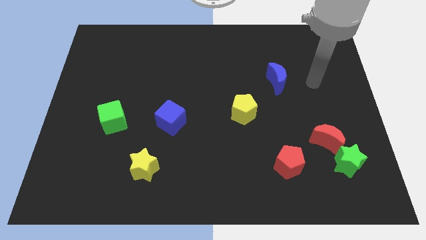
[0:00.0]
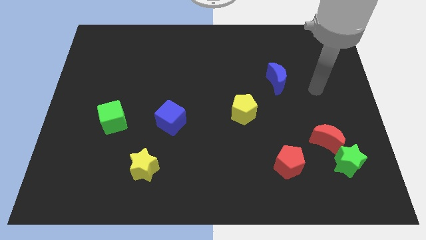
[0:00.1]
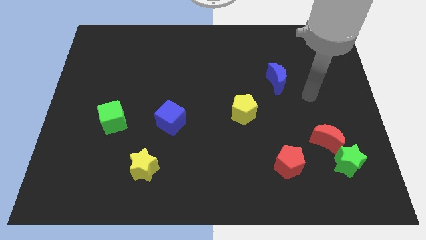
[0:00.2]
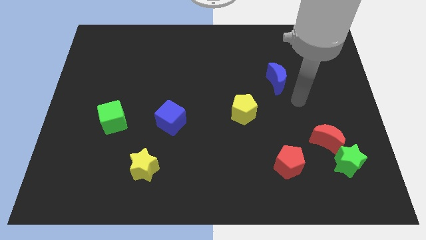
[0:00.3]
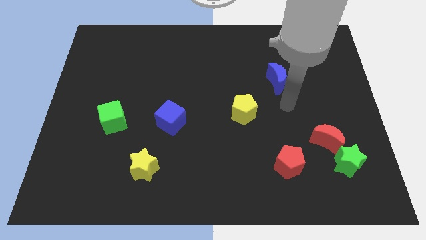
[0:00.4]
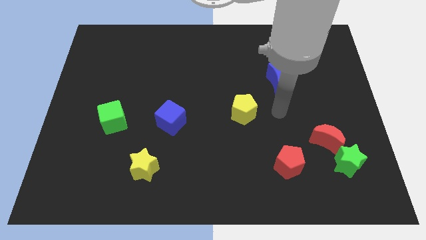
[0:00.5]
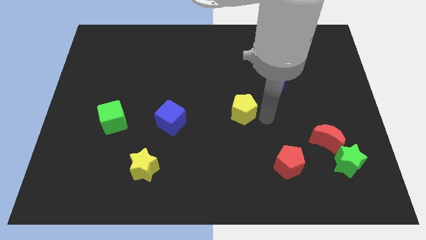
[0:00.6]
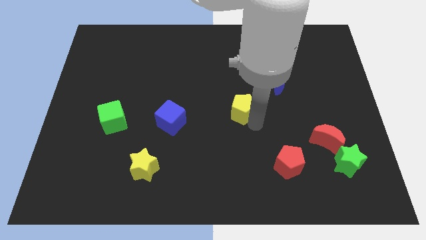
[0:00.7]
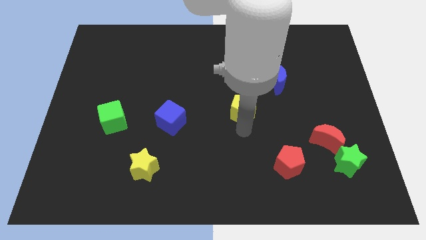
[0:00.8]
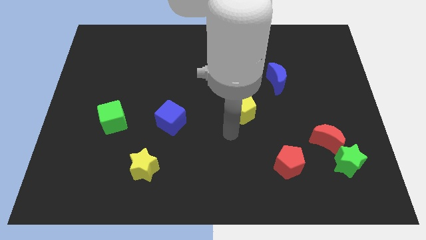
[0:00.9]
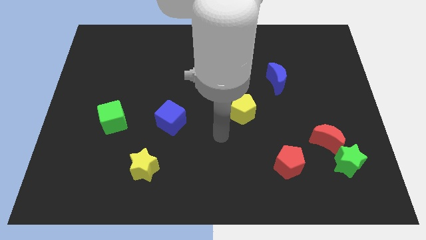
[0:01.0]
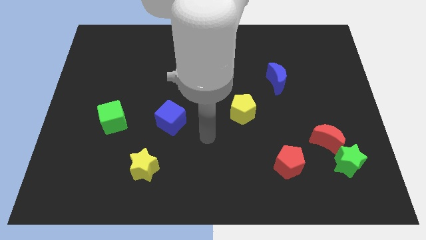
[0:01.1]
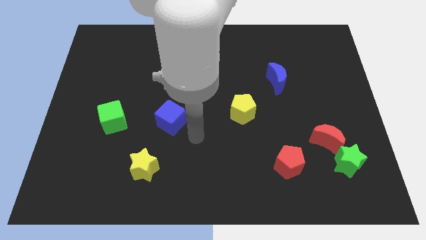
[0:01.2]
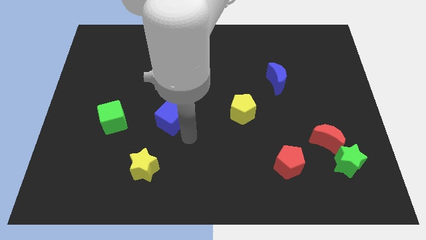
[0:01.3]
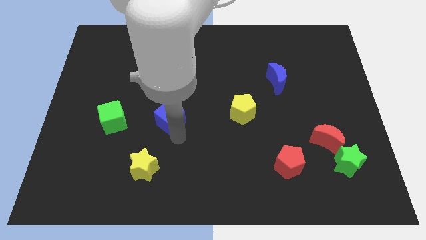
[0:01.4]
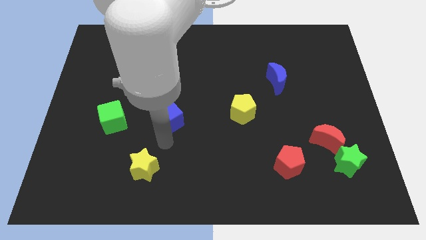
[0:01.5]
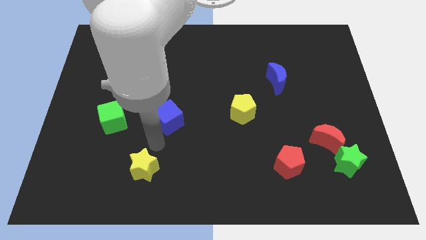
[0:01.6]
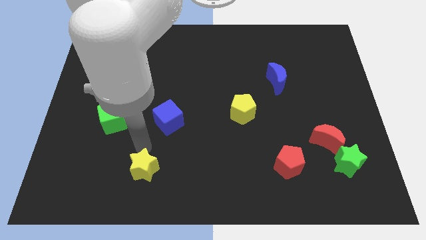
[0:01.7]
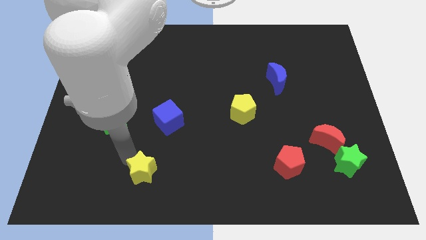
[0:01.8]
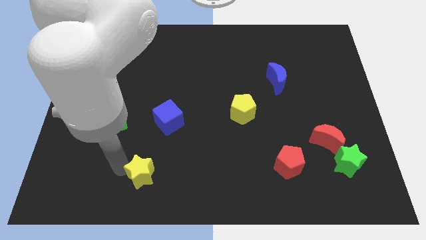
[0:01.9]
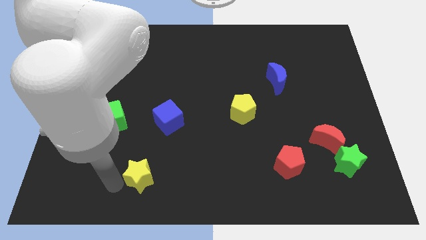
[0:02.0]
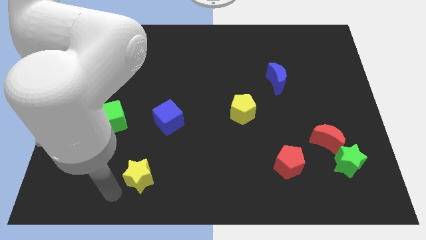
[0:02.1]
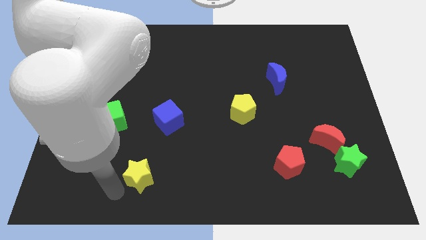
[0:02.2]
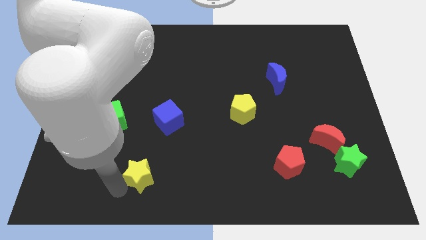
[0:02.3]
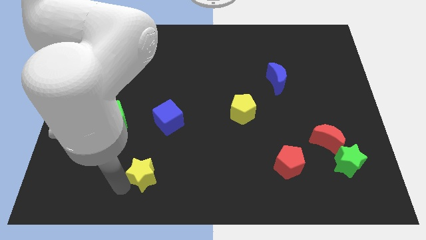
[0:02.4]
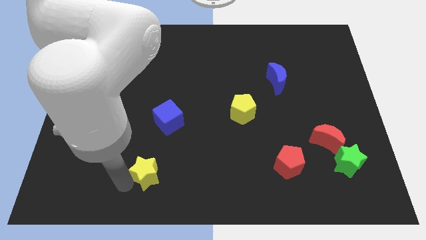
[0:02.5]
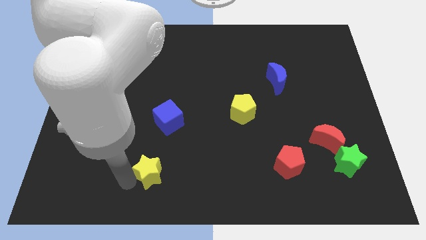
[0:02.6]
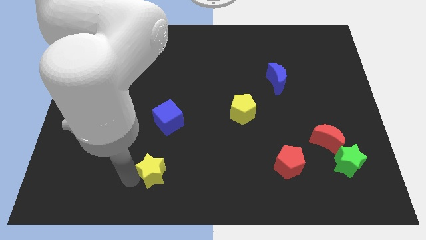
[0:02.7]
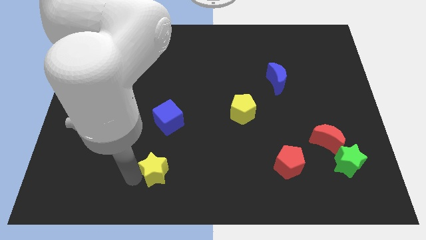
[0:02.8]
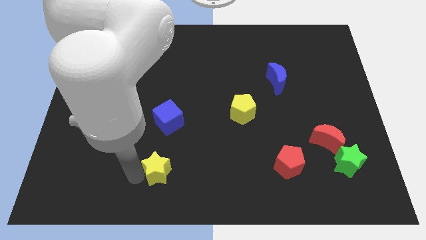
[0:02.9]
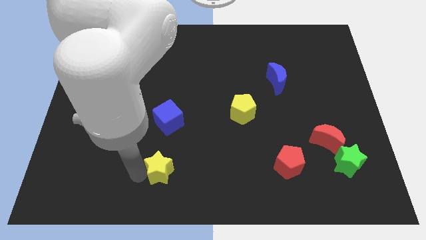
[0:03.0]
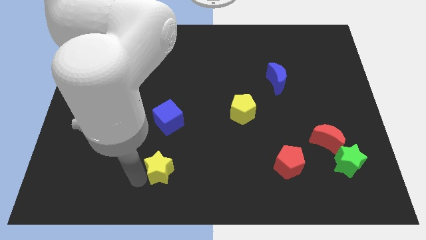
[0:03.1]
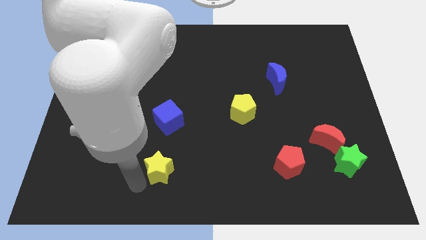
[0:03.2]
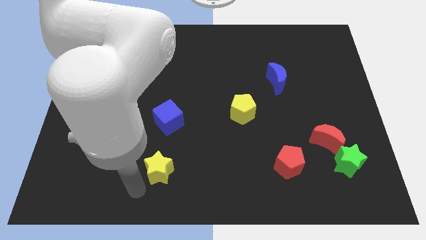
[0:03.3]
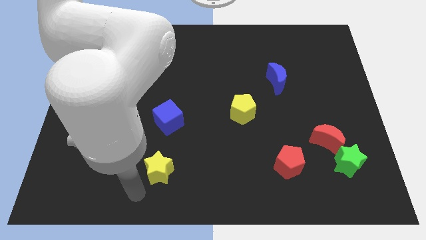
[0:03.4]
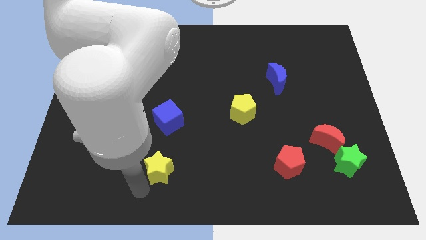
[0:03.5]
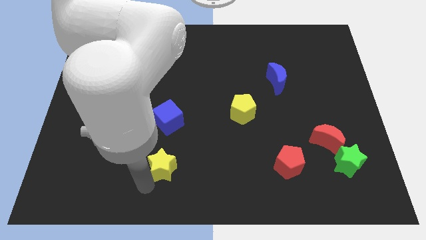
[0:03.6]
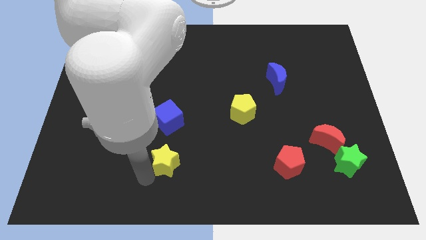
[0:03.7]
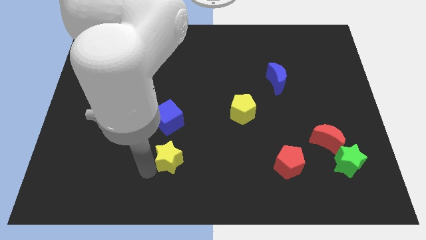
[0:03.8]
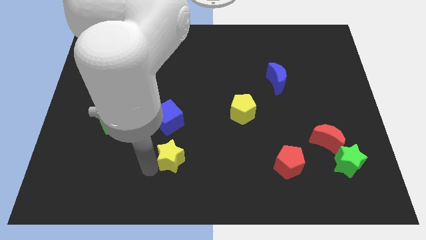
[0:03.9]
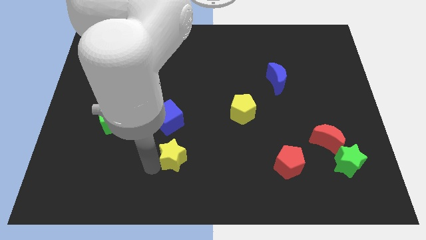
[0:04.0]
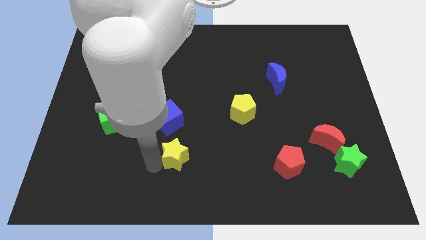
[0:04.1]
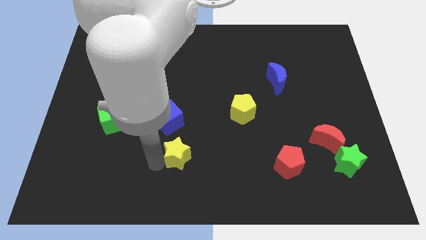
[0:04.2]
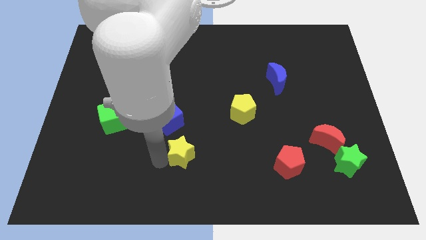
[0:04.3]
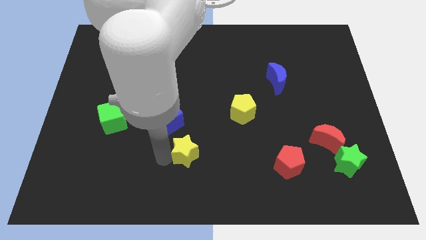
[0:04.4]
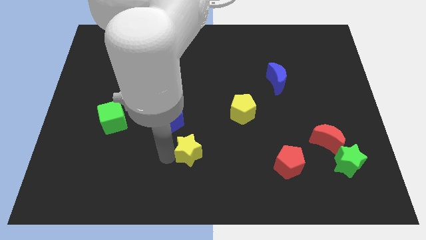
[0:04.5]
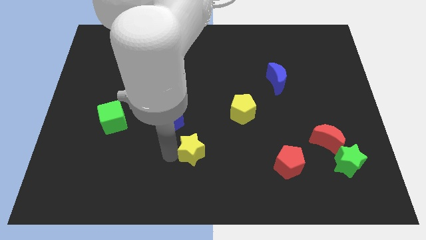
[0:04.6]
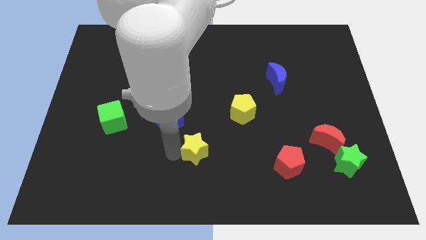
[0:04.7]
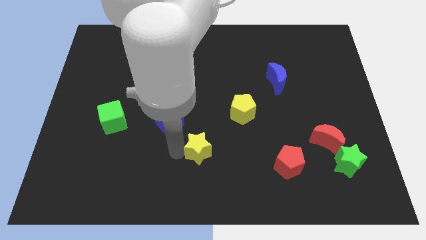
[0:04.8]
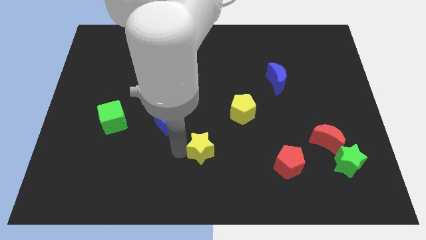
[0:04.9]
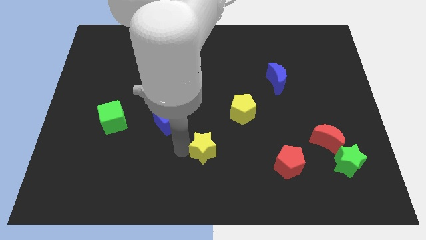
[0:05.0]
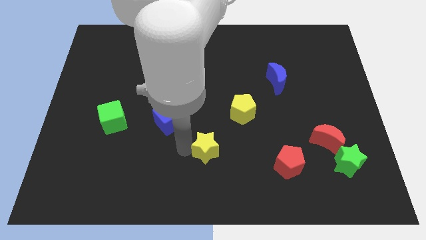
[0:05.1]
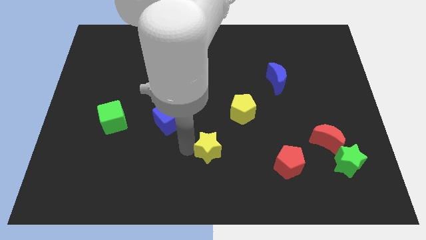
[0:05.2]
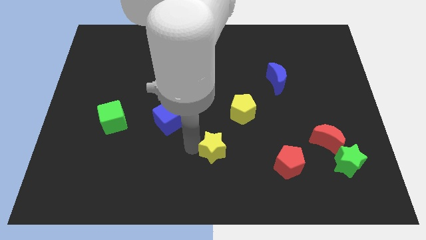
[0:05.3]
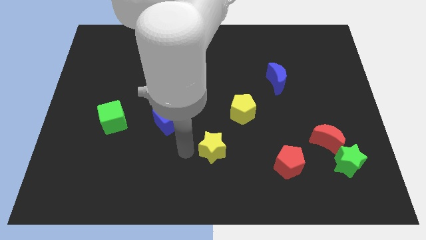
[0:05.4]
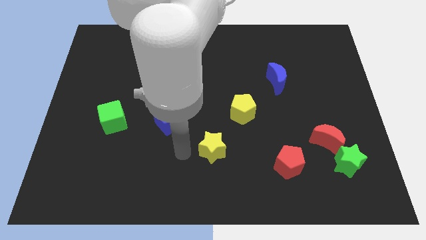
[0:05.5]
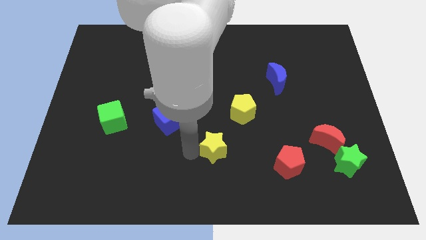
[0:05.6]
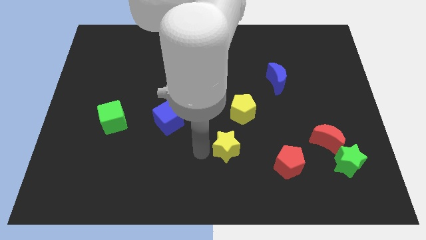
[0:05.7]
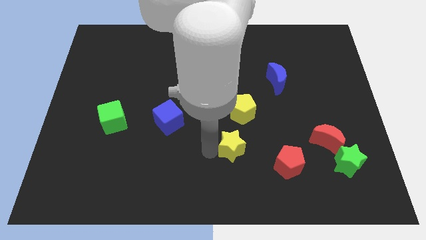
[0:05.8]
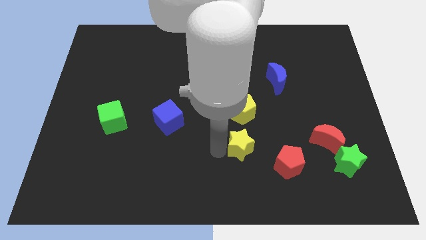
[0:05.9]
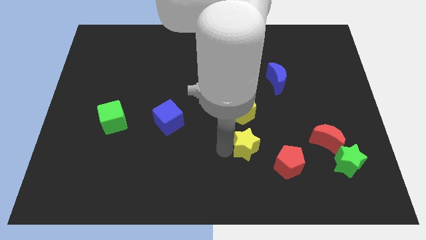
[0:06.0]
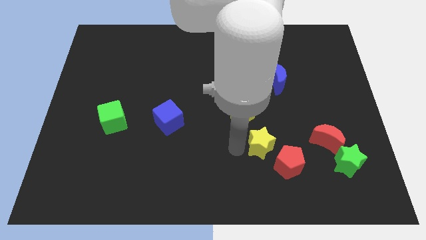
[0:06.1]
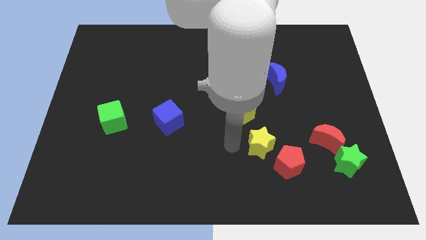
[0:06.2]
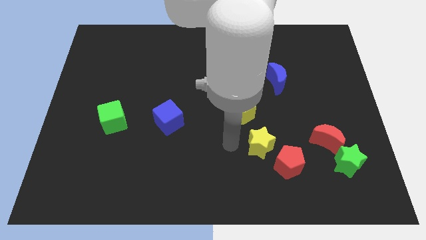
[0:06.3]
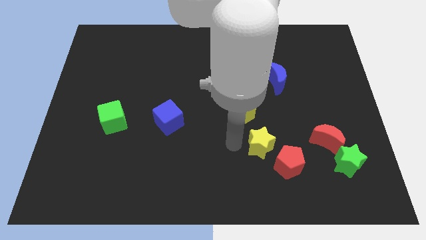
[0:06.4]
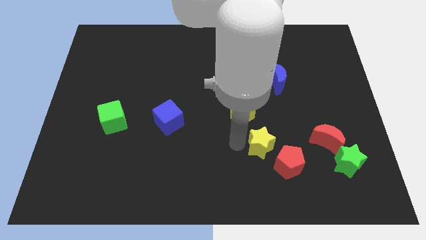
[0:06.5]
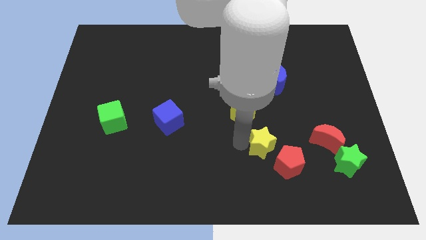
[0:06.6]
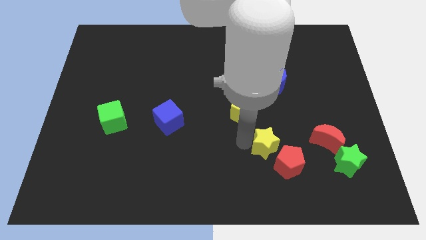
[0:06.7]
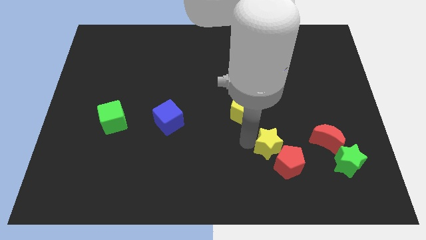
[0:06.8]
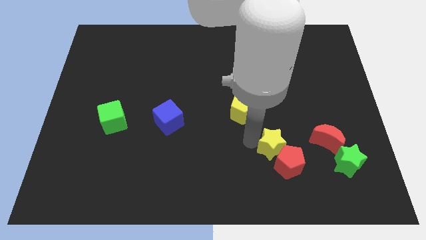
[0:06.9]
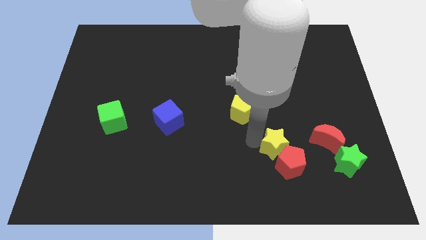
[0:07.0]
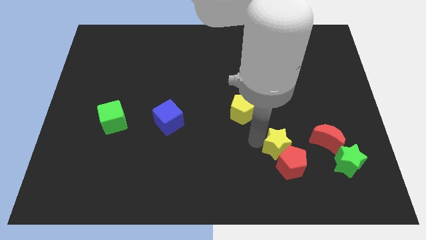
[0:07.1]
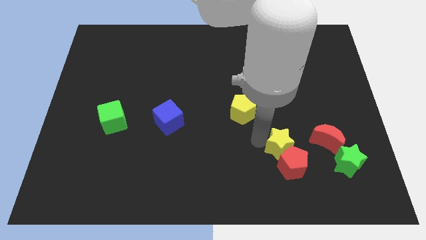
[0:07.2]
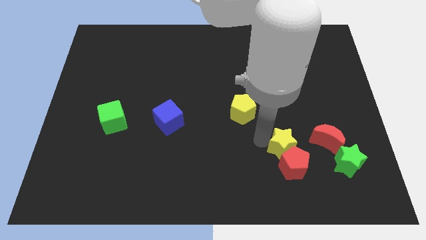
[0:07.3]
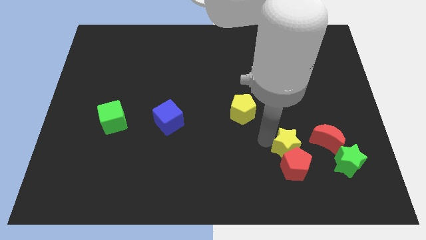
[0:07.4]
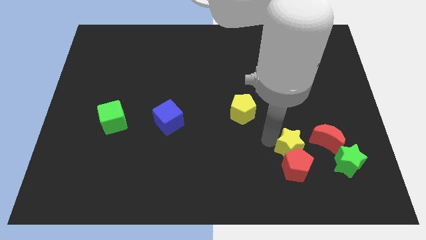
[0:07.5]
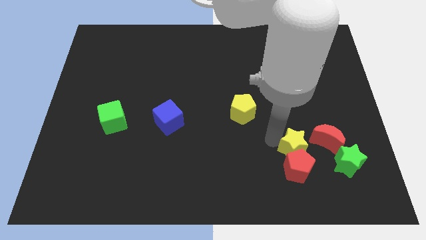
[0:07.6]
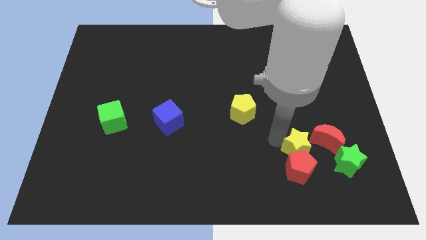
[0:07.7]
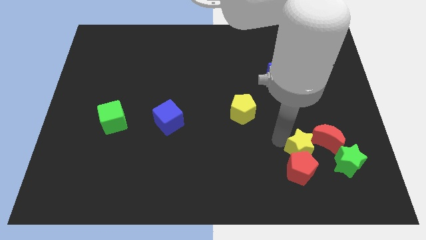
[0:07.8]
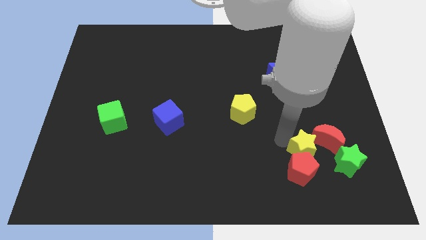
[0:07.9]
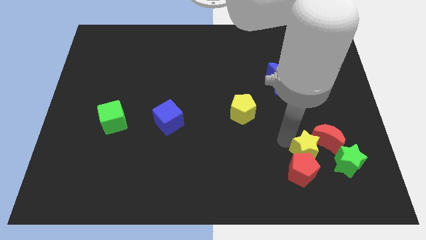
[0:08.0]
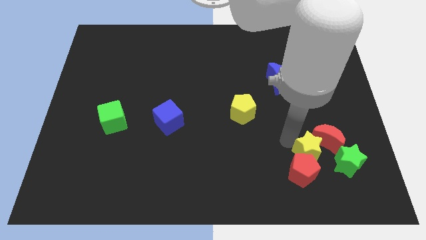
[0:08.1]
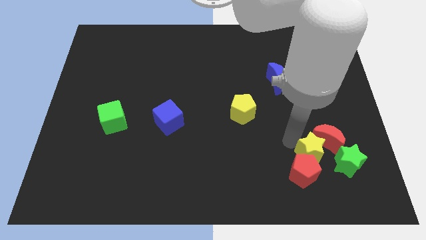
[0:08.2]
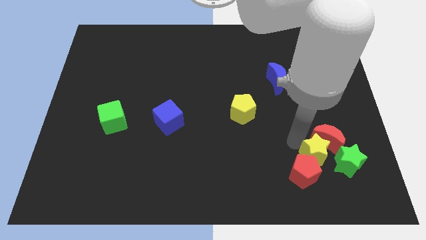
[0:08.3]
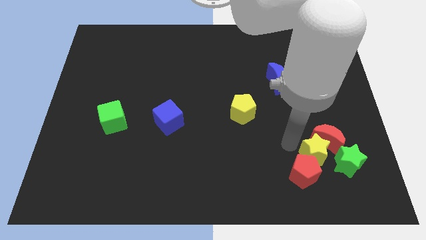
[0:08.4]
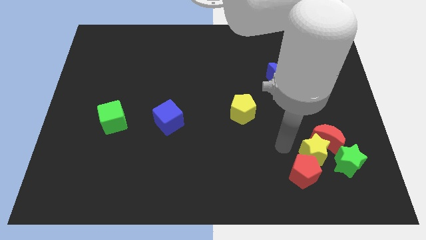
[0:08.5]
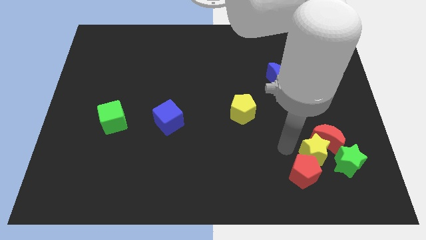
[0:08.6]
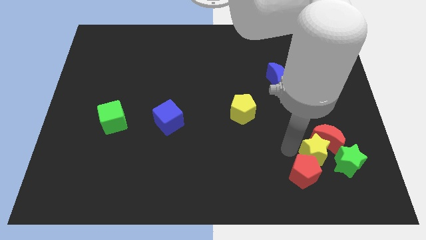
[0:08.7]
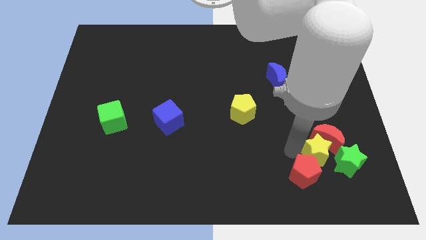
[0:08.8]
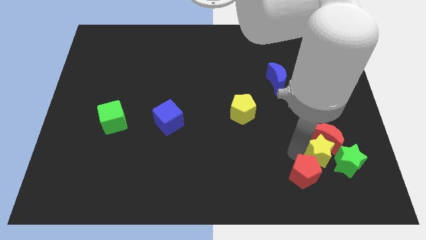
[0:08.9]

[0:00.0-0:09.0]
slide the yellow star close to the green star
